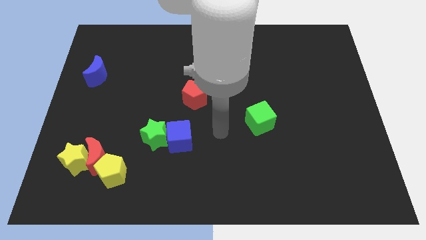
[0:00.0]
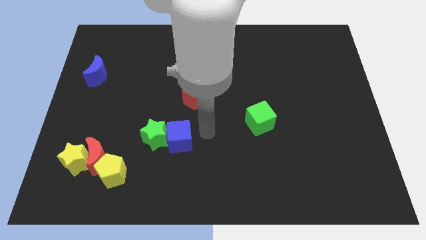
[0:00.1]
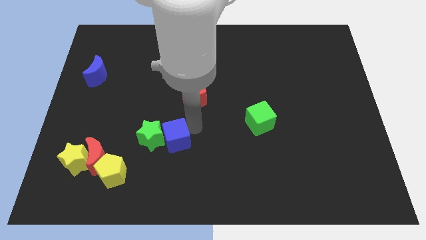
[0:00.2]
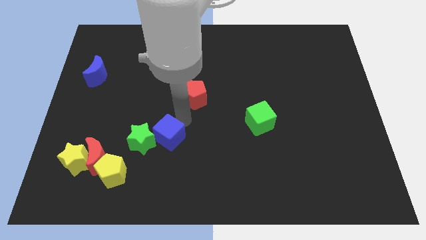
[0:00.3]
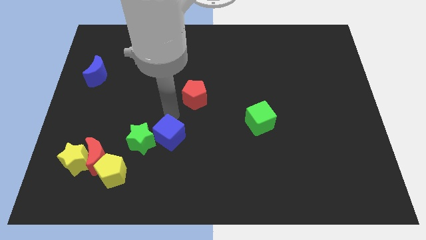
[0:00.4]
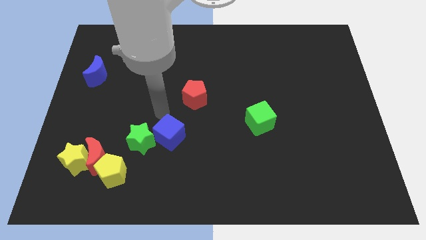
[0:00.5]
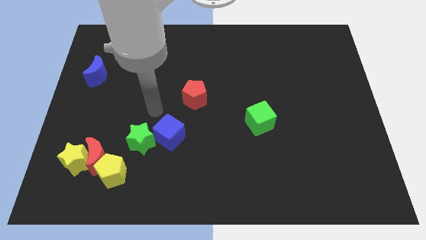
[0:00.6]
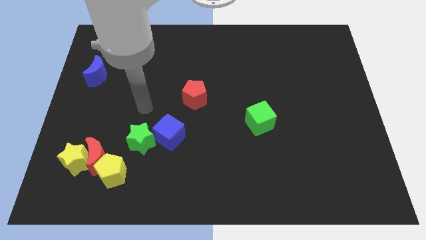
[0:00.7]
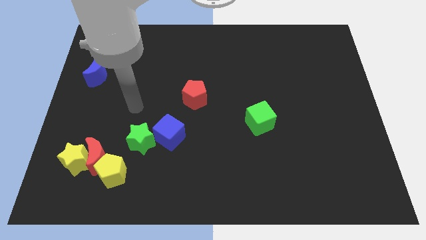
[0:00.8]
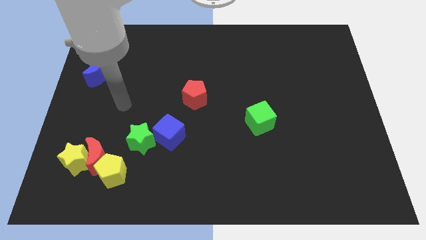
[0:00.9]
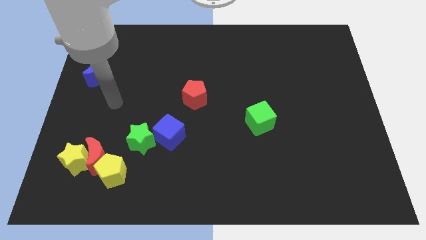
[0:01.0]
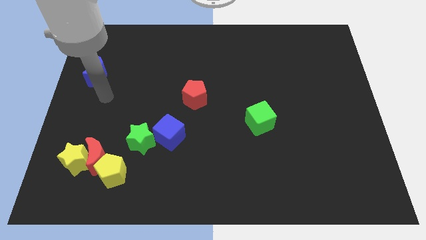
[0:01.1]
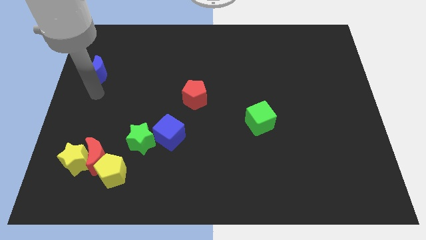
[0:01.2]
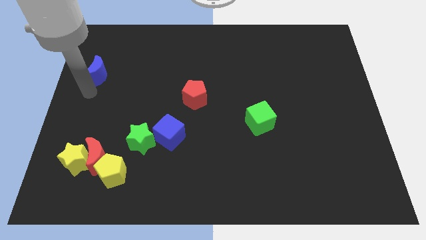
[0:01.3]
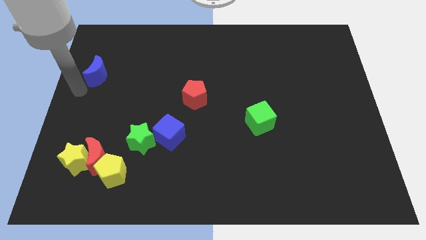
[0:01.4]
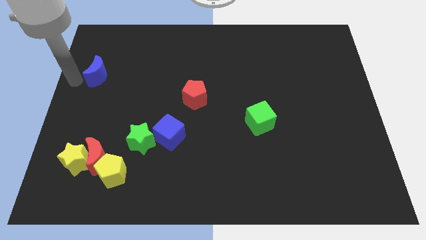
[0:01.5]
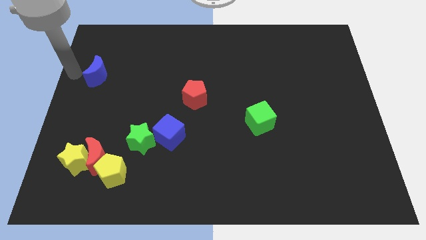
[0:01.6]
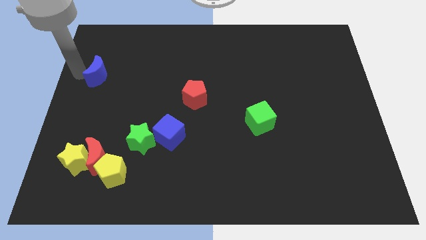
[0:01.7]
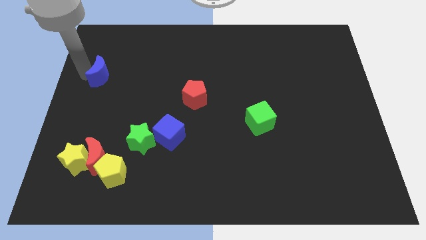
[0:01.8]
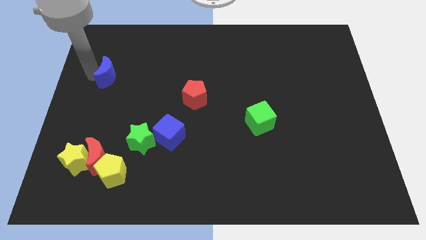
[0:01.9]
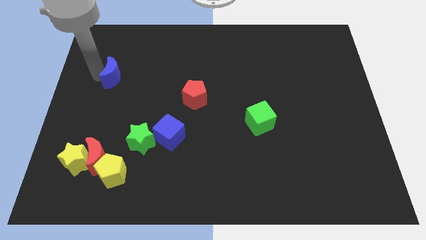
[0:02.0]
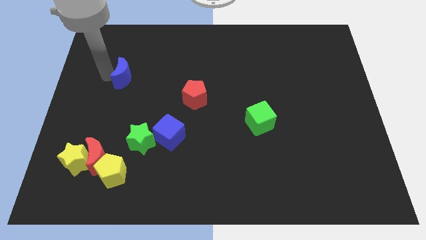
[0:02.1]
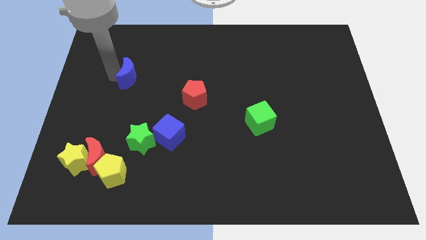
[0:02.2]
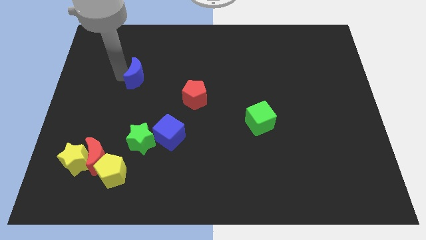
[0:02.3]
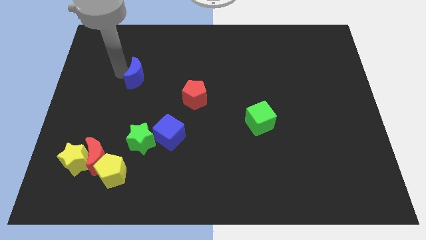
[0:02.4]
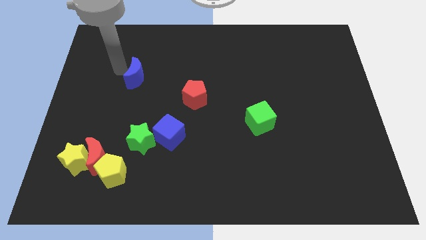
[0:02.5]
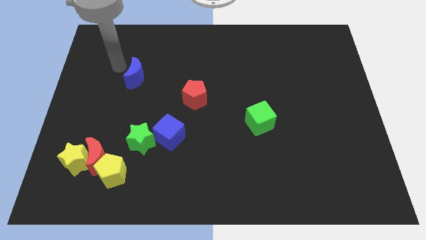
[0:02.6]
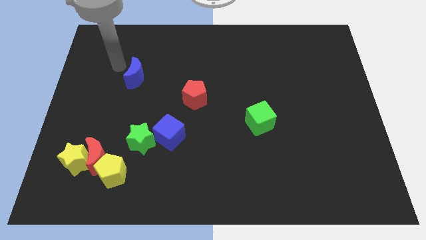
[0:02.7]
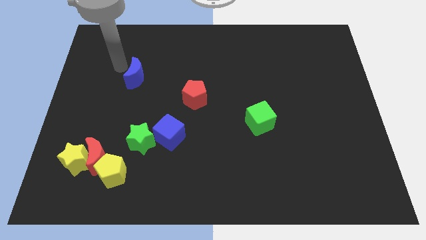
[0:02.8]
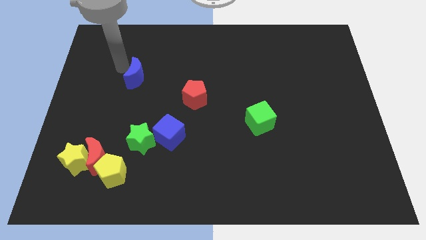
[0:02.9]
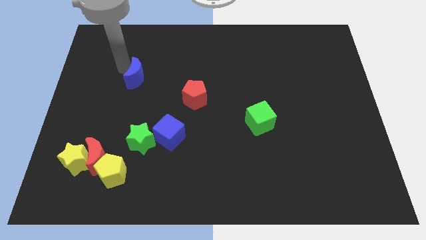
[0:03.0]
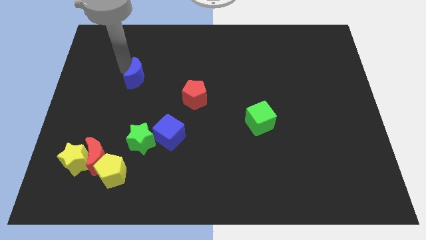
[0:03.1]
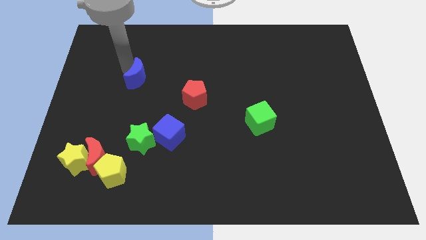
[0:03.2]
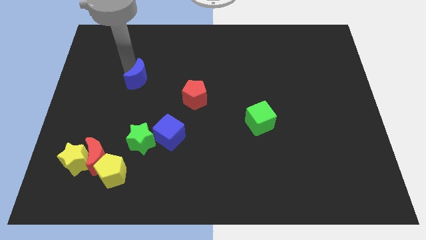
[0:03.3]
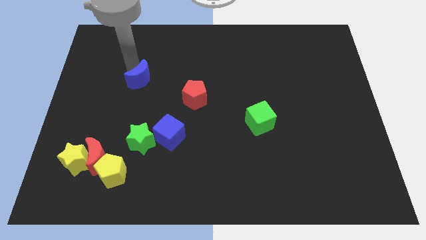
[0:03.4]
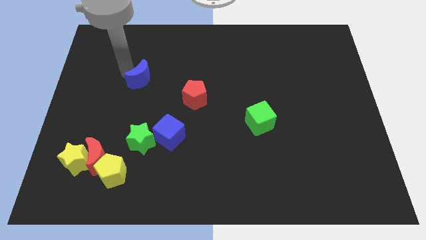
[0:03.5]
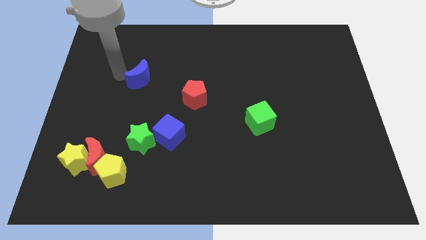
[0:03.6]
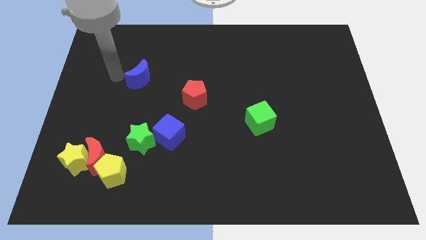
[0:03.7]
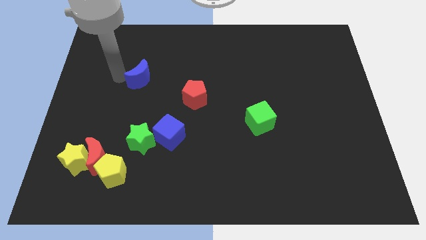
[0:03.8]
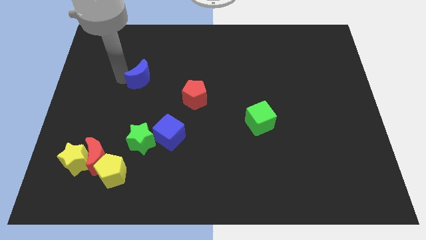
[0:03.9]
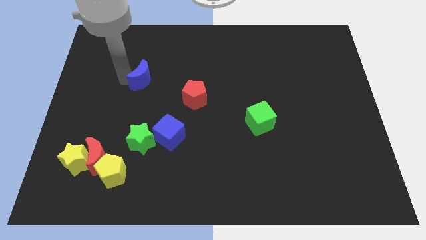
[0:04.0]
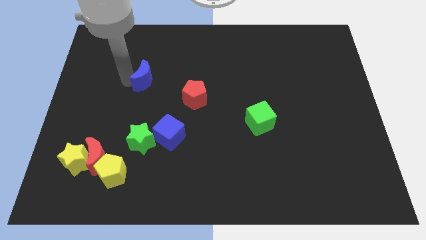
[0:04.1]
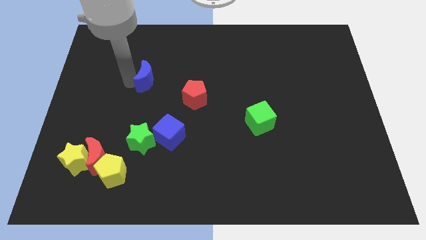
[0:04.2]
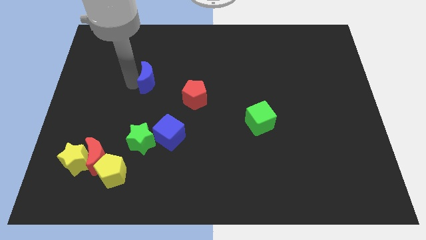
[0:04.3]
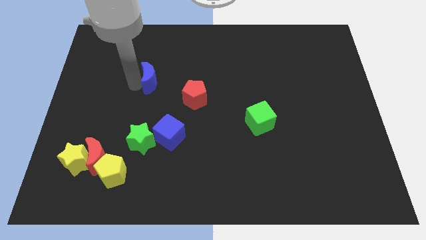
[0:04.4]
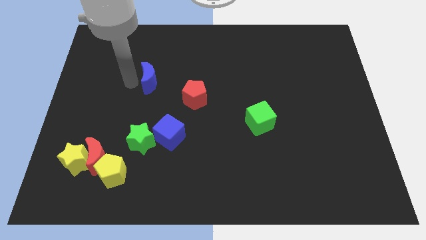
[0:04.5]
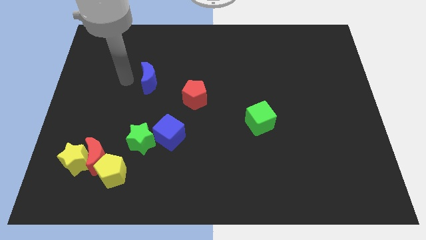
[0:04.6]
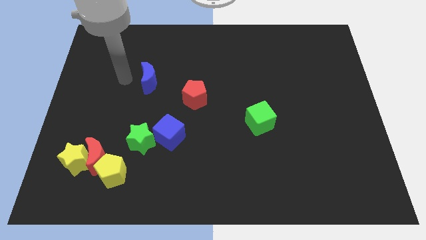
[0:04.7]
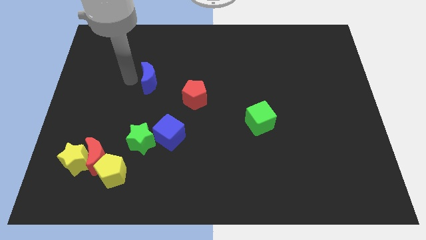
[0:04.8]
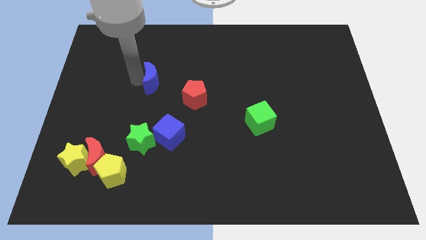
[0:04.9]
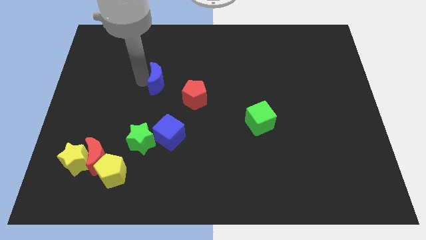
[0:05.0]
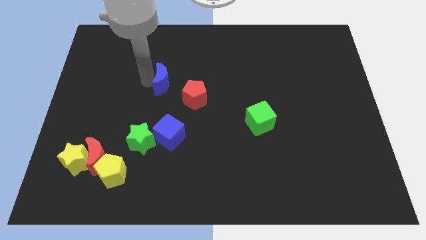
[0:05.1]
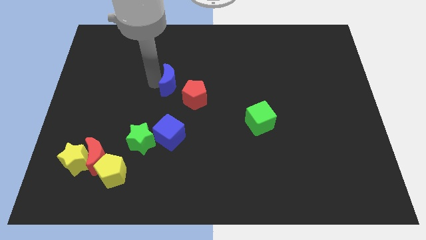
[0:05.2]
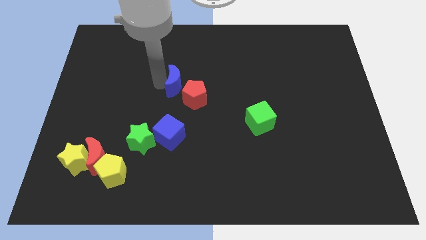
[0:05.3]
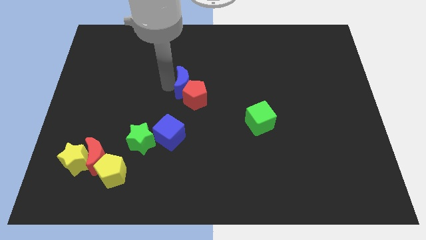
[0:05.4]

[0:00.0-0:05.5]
move the blue moon to the right

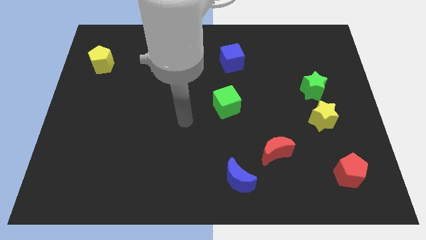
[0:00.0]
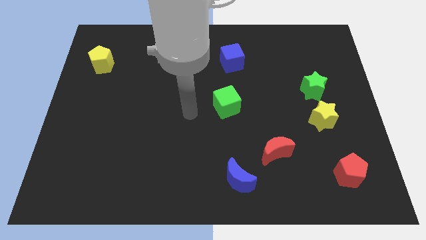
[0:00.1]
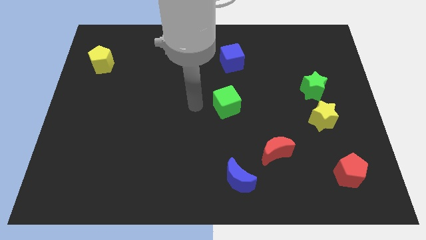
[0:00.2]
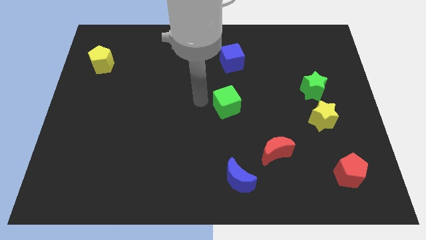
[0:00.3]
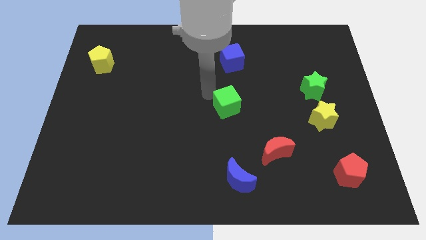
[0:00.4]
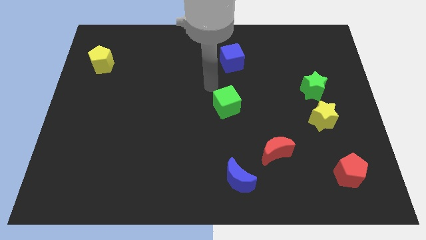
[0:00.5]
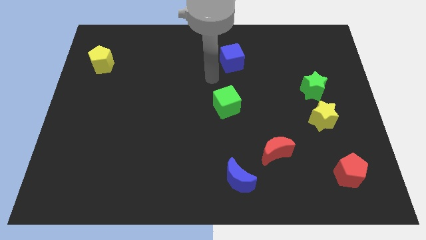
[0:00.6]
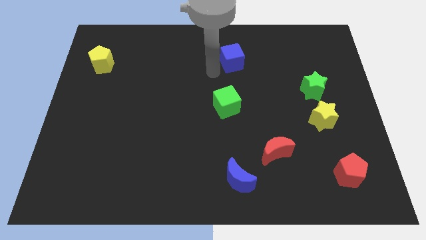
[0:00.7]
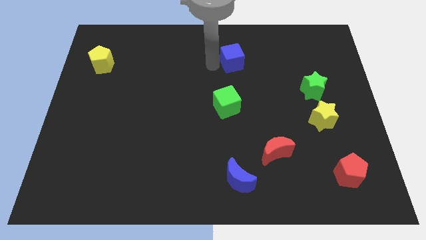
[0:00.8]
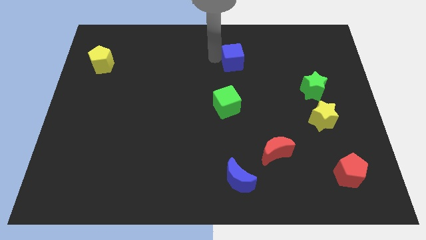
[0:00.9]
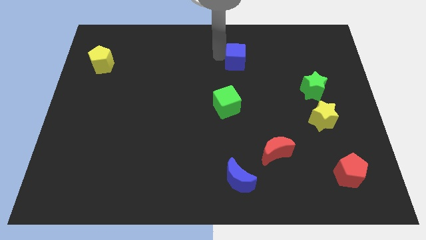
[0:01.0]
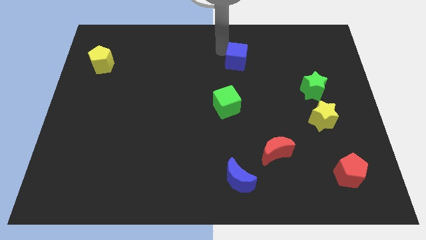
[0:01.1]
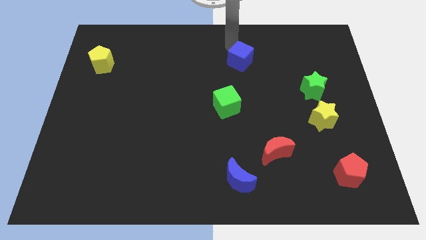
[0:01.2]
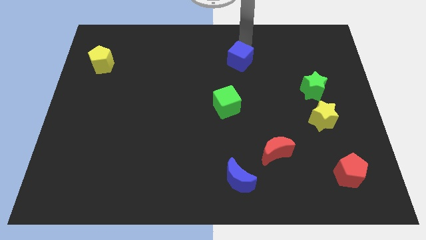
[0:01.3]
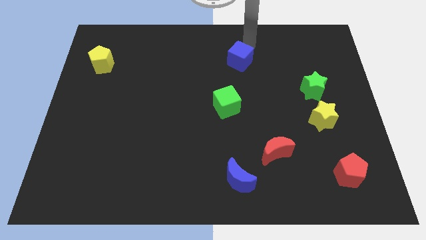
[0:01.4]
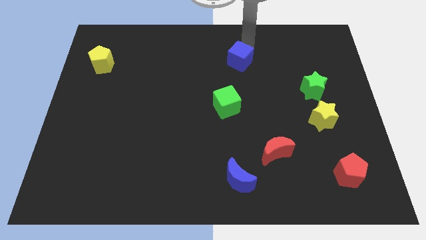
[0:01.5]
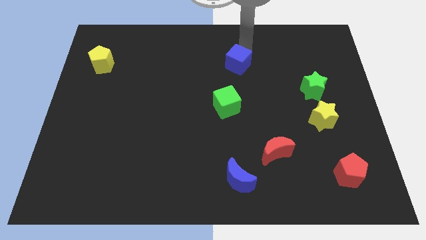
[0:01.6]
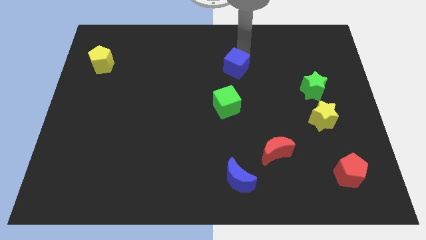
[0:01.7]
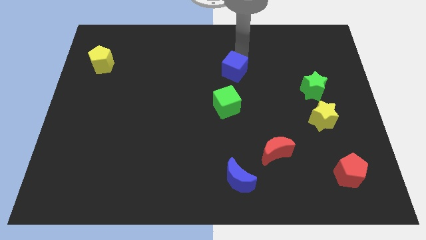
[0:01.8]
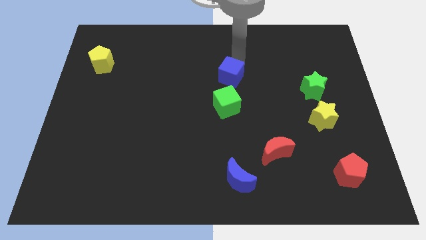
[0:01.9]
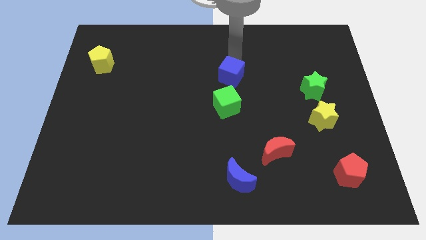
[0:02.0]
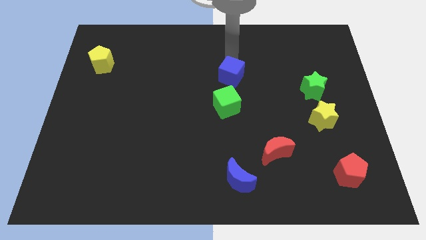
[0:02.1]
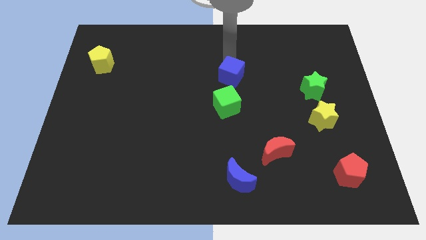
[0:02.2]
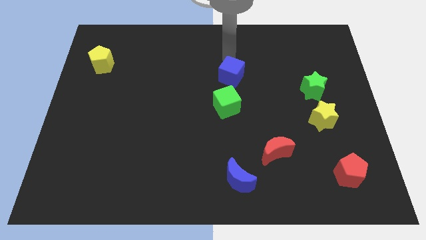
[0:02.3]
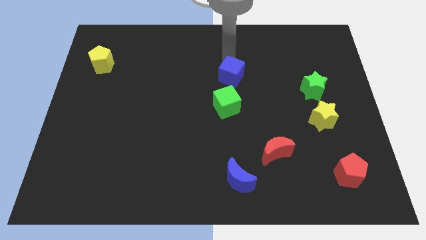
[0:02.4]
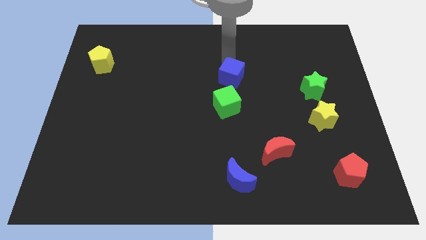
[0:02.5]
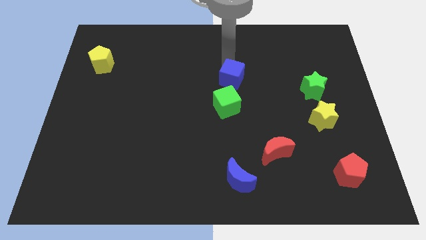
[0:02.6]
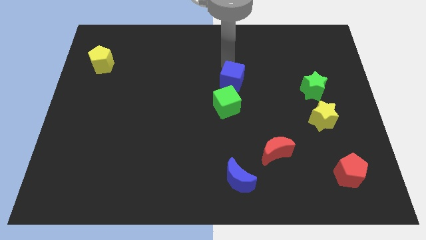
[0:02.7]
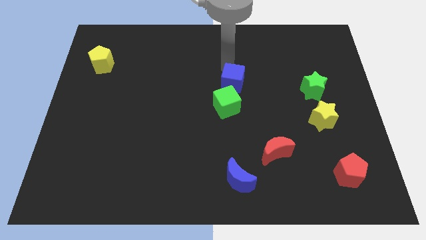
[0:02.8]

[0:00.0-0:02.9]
slightly move the blue cube downwards

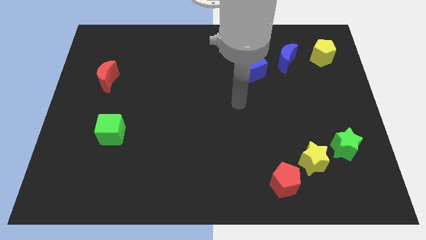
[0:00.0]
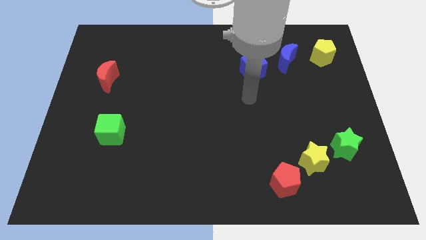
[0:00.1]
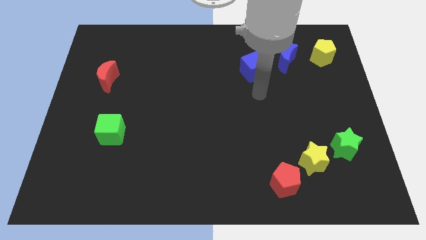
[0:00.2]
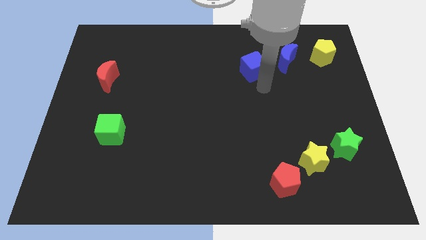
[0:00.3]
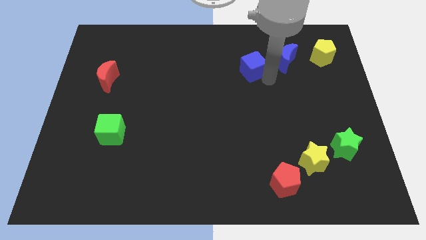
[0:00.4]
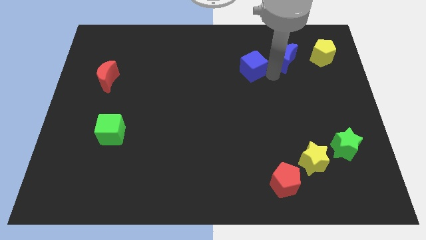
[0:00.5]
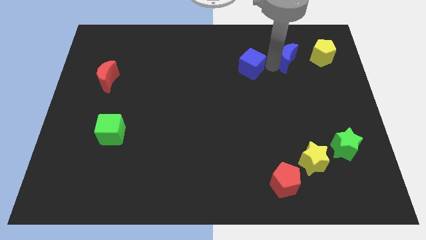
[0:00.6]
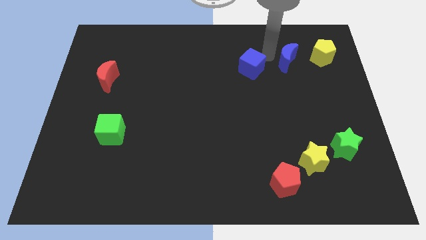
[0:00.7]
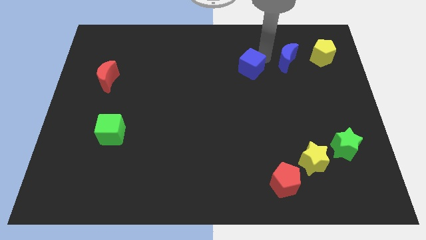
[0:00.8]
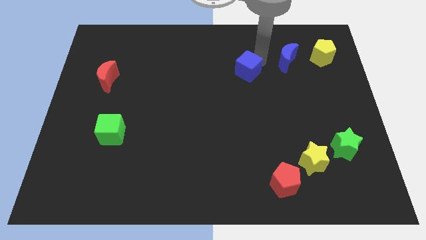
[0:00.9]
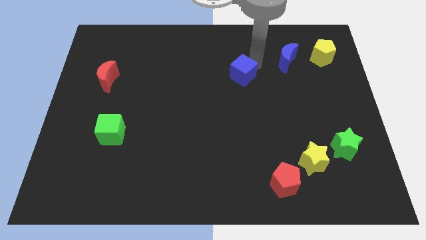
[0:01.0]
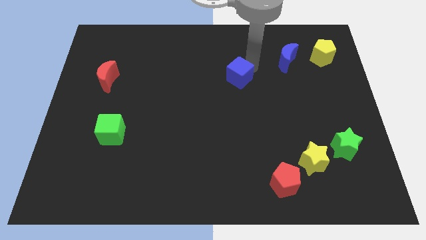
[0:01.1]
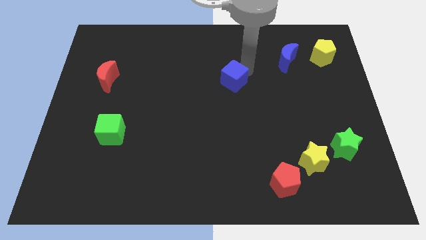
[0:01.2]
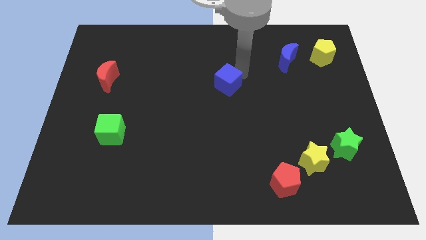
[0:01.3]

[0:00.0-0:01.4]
move the blue cube a little bit downwards and left diagonally
